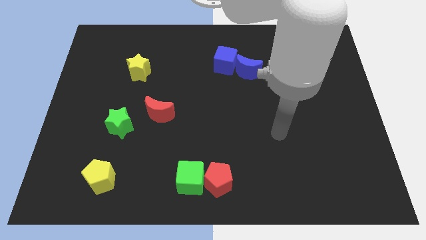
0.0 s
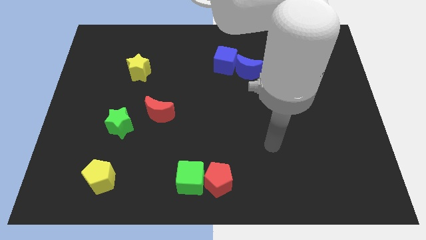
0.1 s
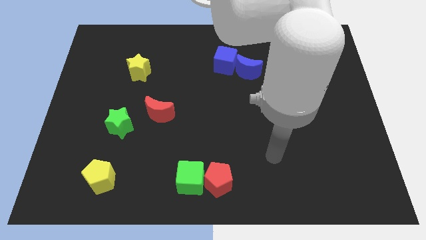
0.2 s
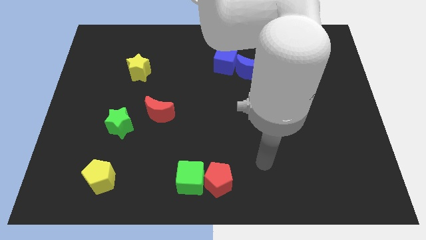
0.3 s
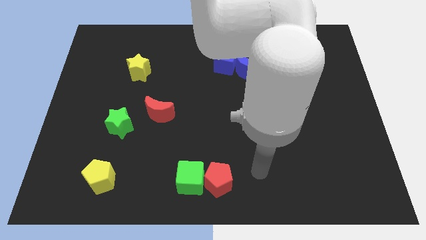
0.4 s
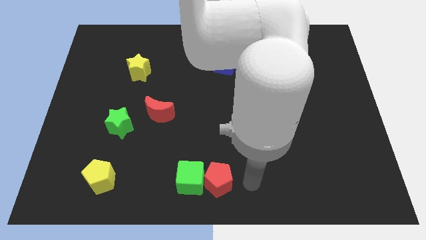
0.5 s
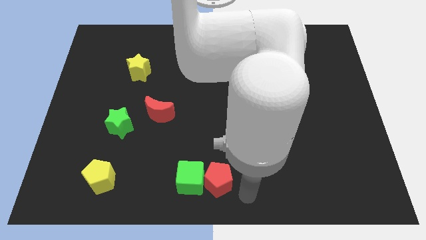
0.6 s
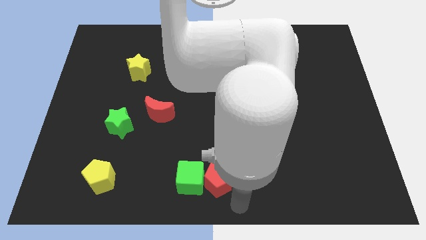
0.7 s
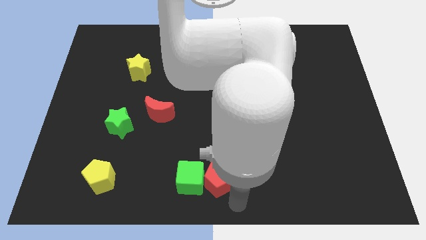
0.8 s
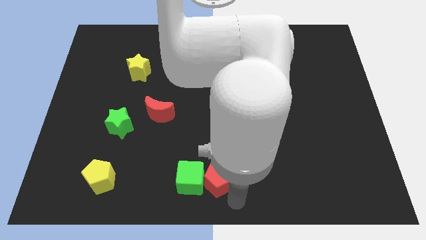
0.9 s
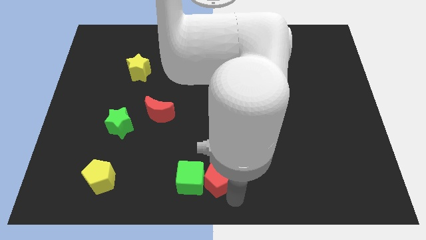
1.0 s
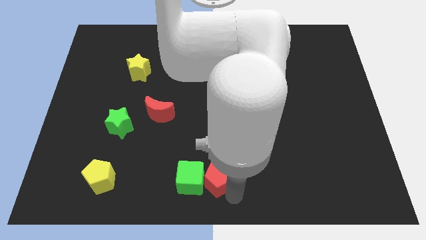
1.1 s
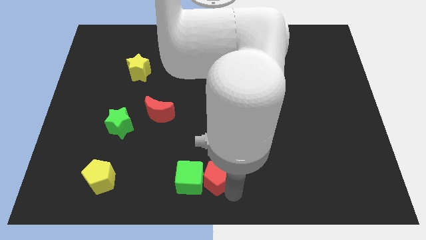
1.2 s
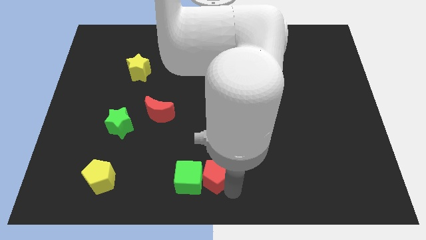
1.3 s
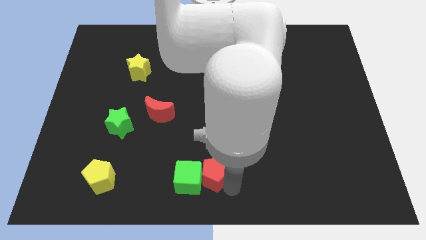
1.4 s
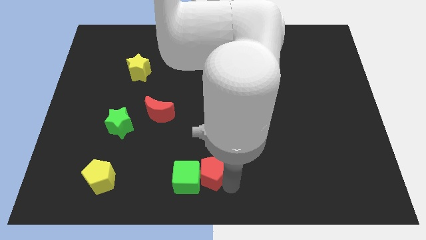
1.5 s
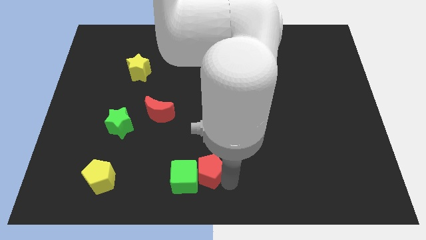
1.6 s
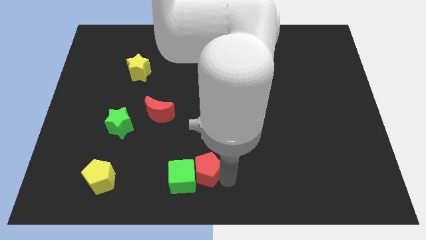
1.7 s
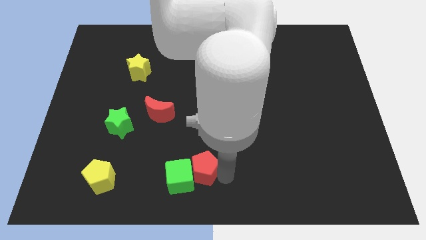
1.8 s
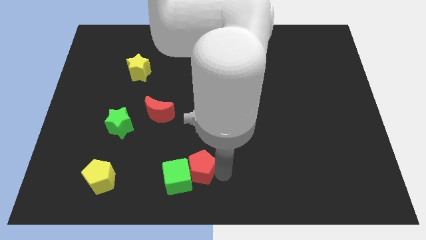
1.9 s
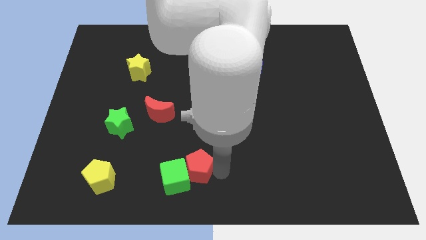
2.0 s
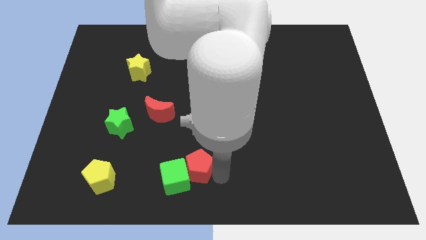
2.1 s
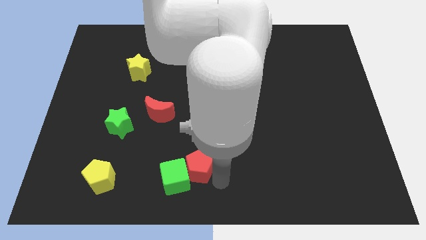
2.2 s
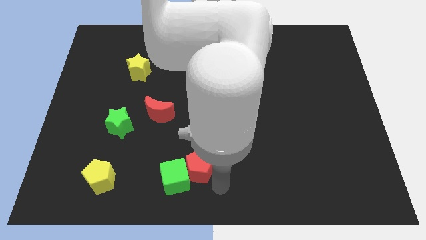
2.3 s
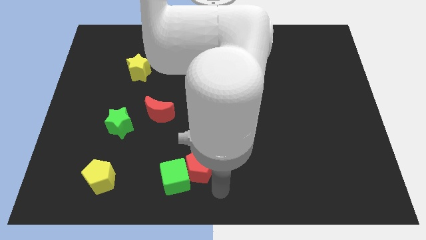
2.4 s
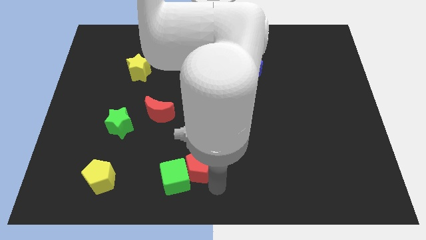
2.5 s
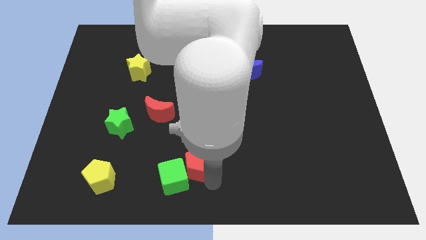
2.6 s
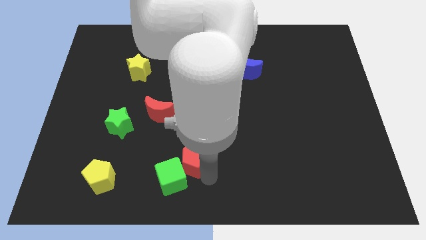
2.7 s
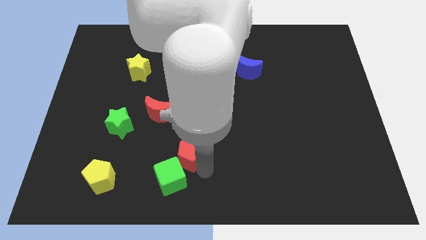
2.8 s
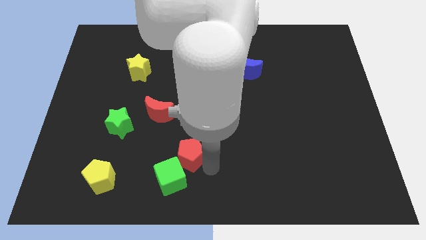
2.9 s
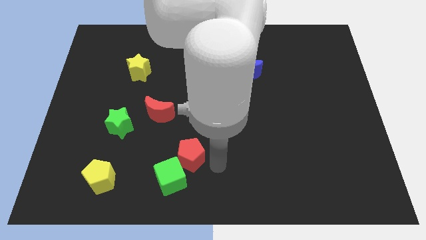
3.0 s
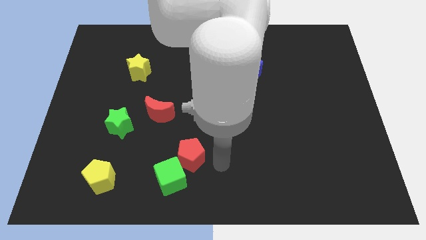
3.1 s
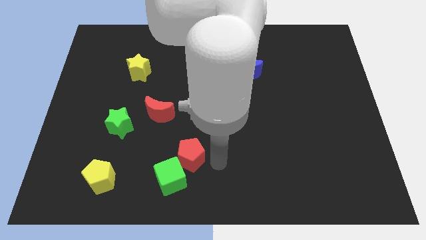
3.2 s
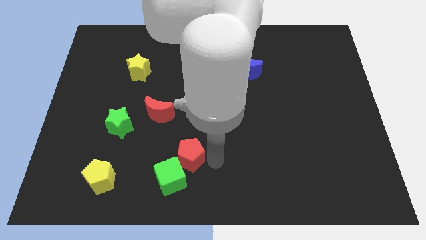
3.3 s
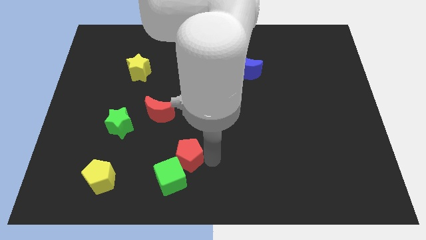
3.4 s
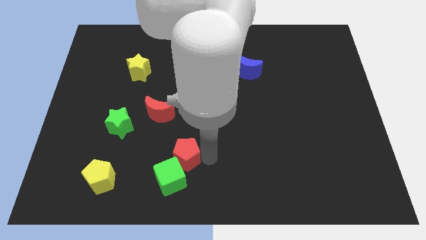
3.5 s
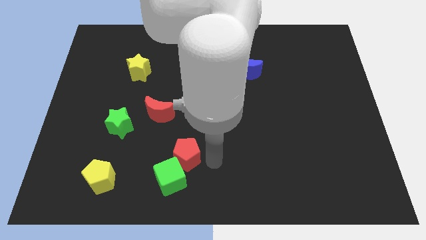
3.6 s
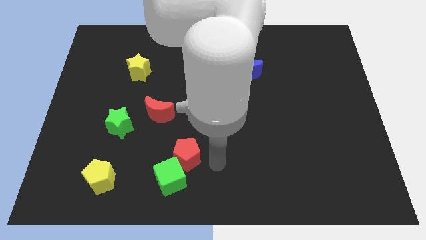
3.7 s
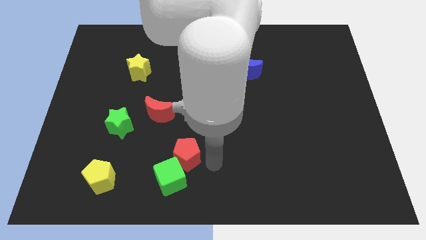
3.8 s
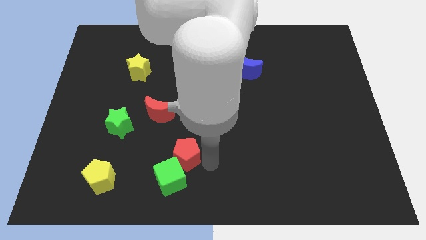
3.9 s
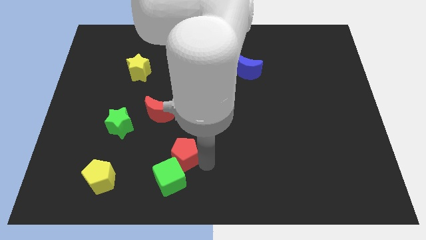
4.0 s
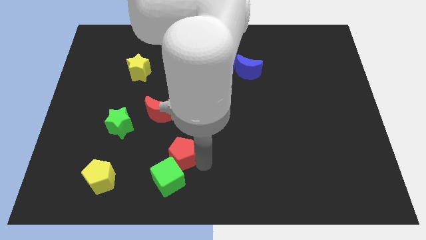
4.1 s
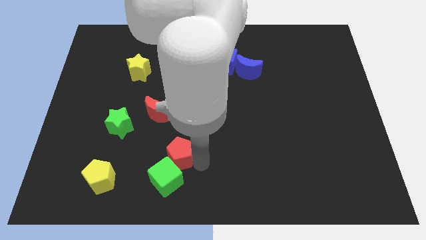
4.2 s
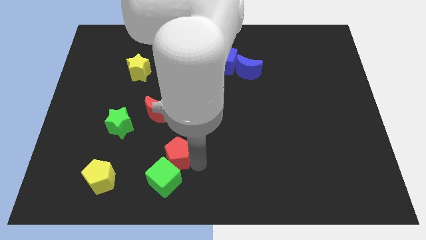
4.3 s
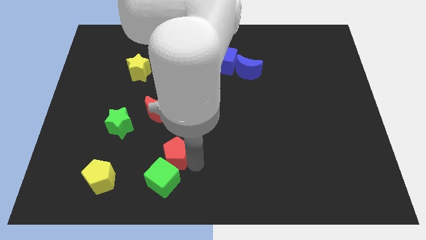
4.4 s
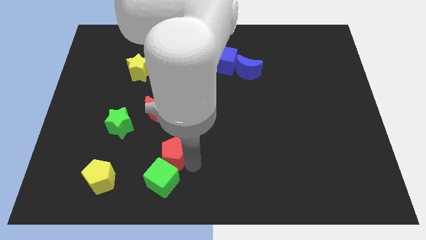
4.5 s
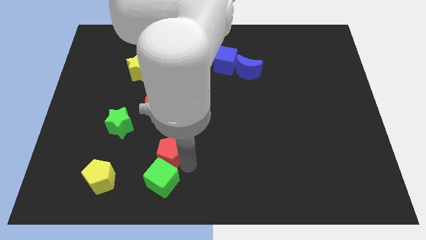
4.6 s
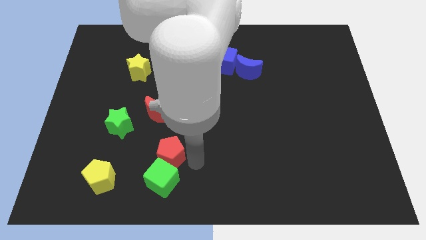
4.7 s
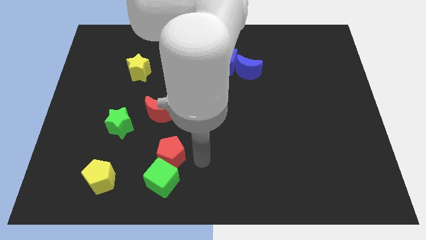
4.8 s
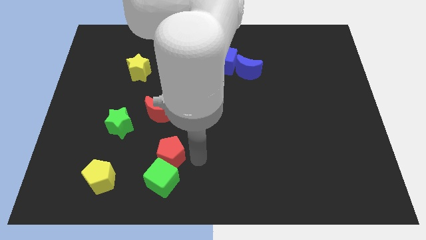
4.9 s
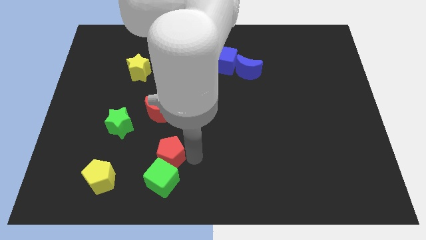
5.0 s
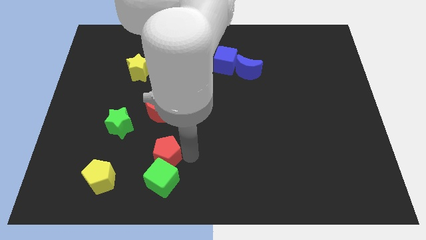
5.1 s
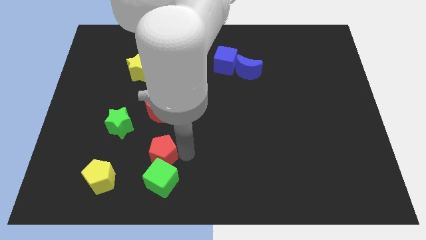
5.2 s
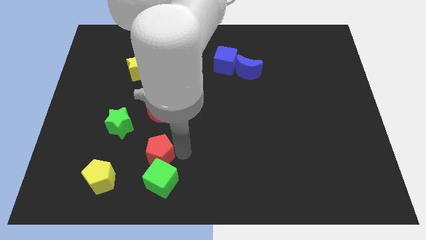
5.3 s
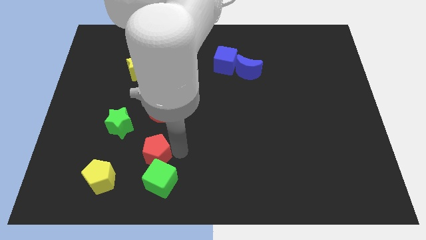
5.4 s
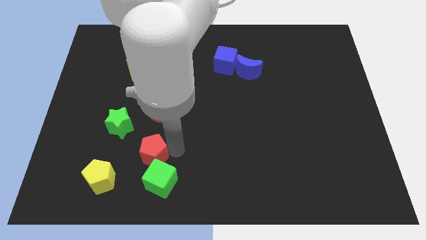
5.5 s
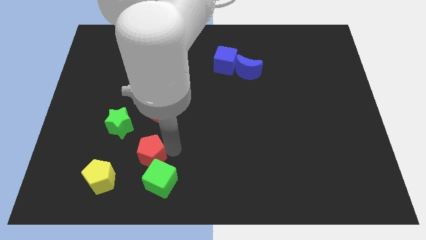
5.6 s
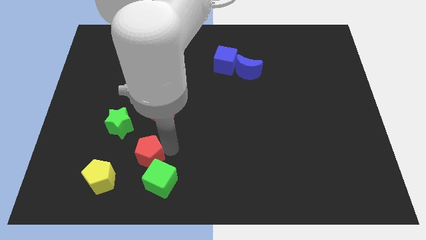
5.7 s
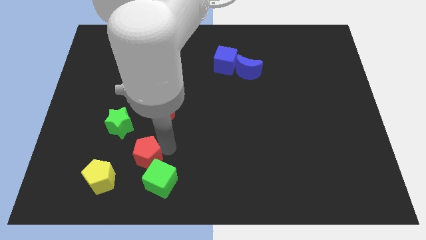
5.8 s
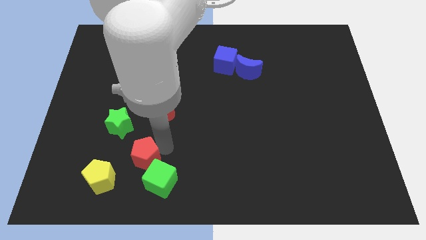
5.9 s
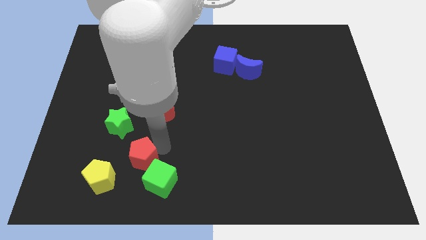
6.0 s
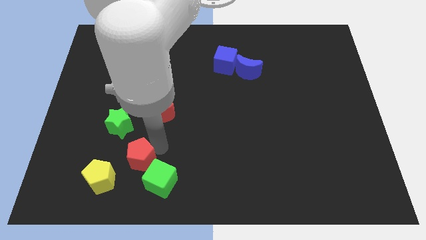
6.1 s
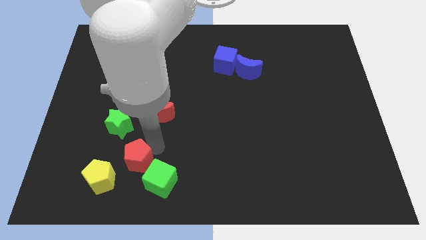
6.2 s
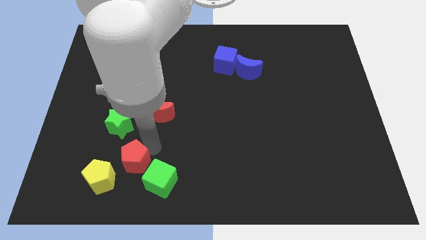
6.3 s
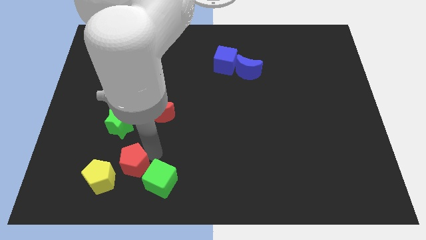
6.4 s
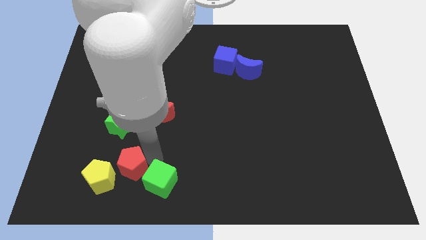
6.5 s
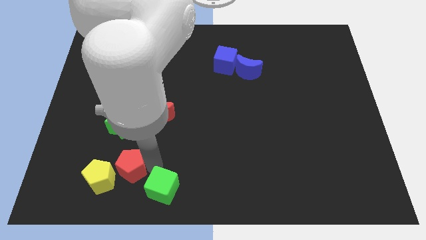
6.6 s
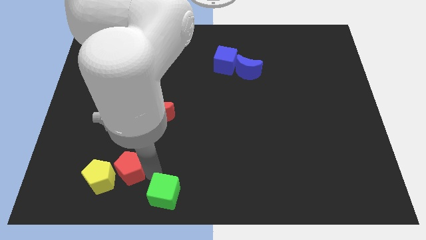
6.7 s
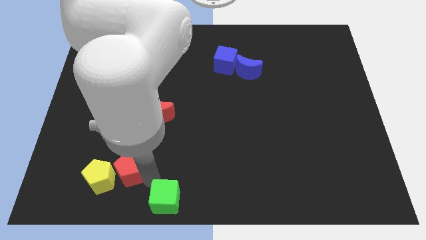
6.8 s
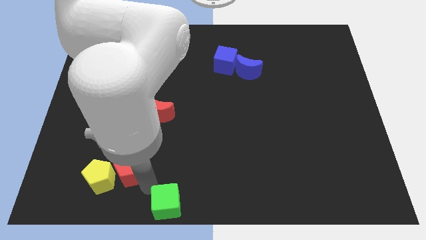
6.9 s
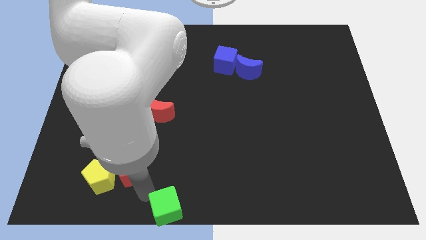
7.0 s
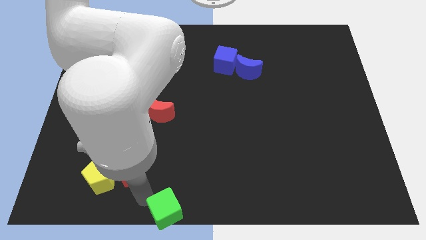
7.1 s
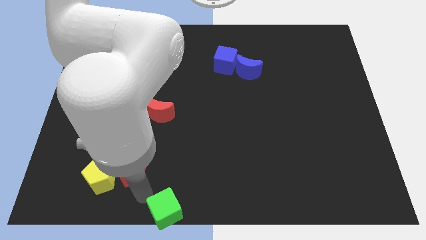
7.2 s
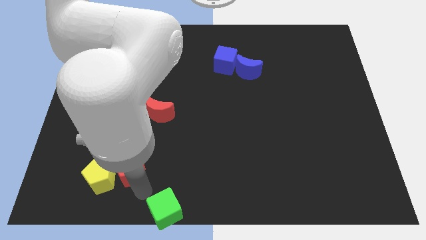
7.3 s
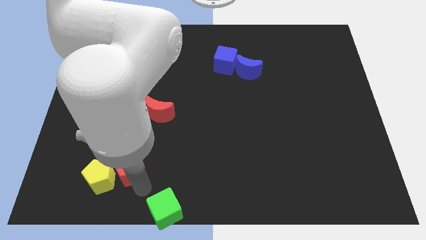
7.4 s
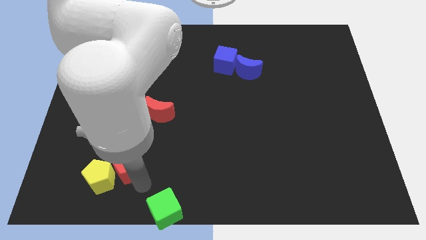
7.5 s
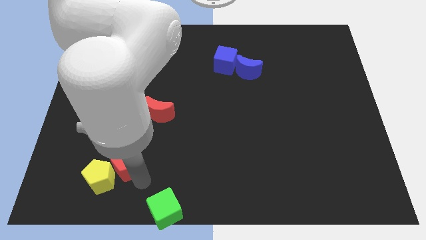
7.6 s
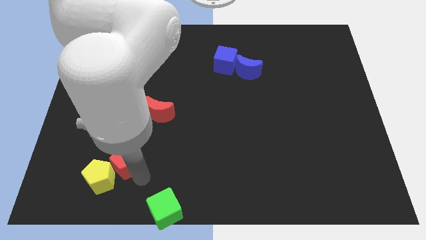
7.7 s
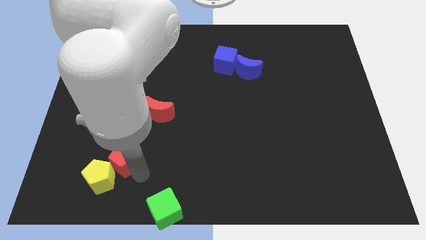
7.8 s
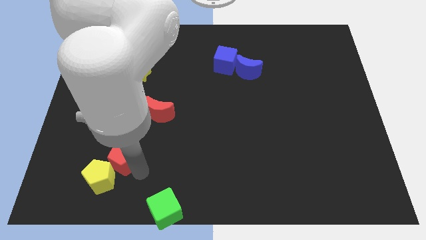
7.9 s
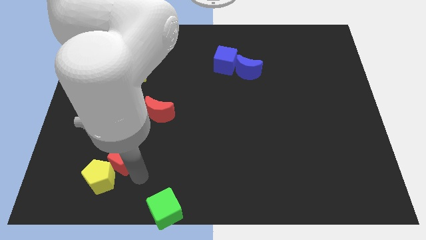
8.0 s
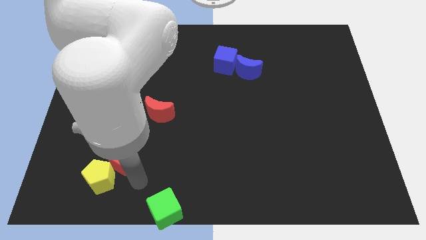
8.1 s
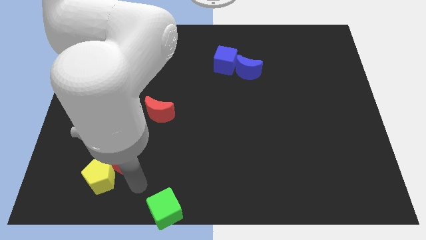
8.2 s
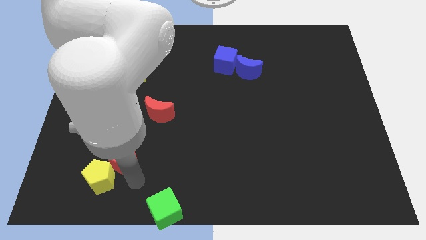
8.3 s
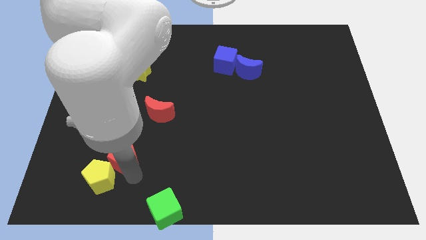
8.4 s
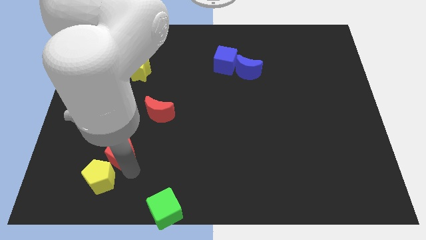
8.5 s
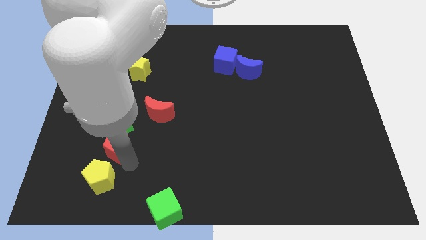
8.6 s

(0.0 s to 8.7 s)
push the red pentagon to the bottom left of the green star
